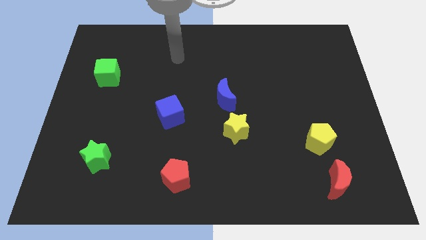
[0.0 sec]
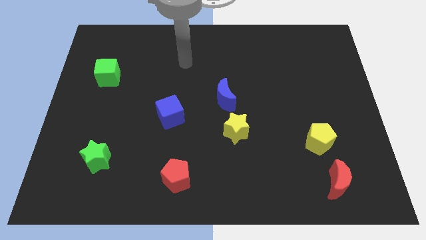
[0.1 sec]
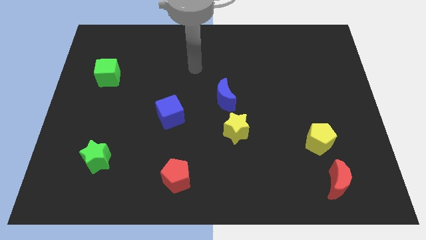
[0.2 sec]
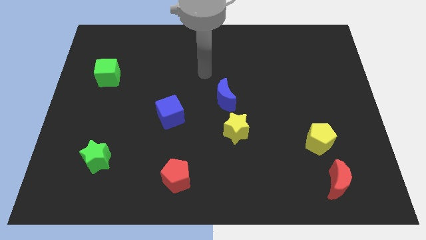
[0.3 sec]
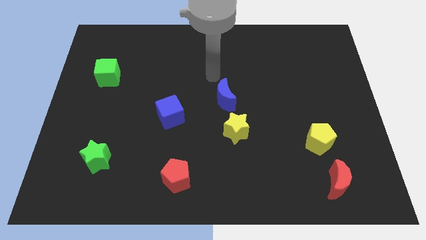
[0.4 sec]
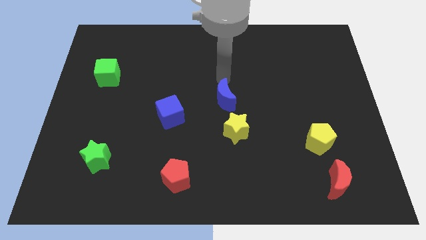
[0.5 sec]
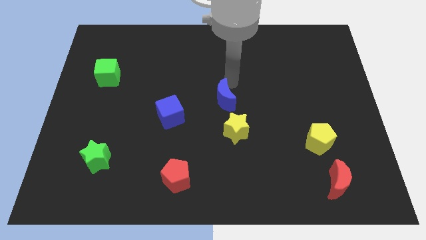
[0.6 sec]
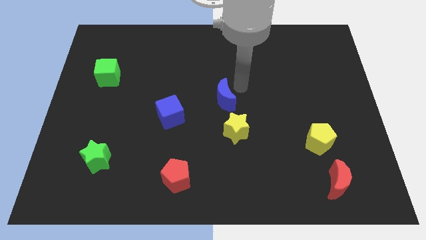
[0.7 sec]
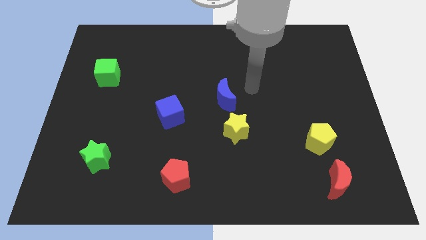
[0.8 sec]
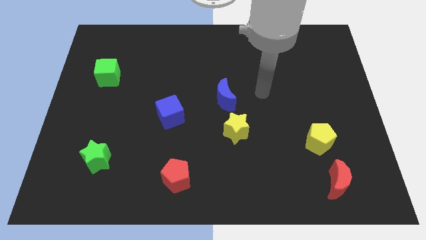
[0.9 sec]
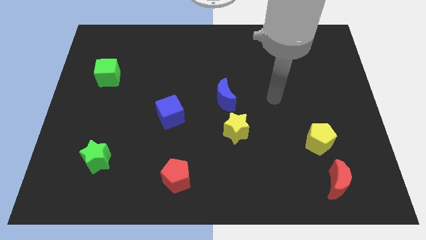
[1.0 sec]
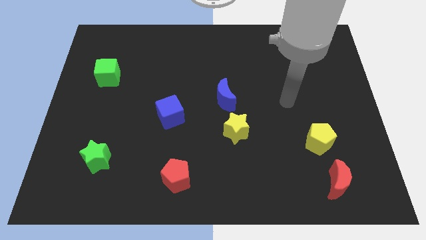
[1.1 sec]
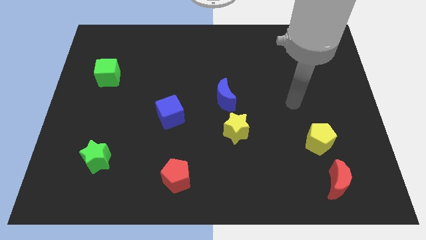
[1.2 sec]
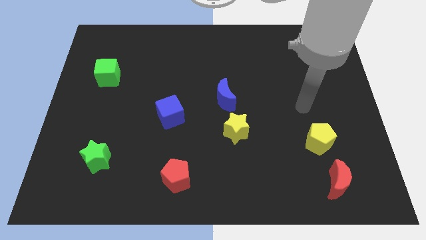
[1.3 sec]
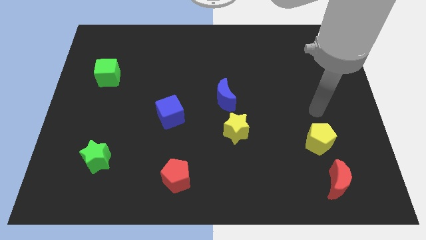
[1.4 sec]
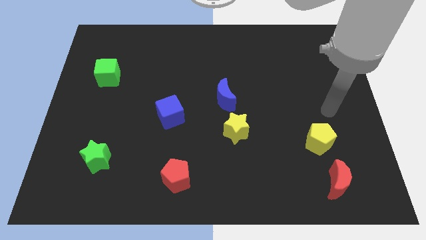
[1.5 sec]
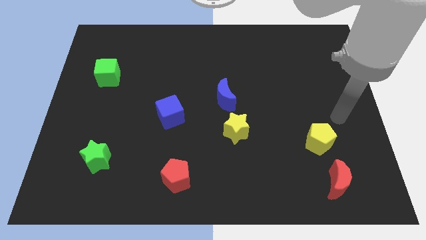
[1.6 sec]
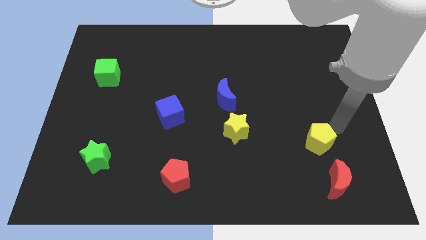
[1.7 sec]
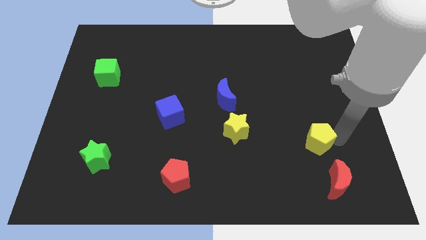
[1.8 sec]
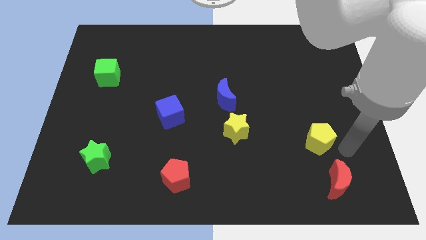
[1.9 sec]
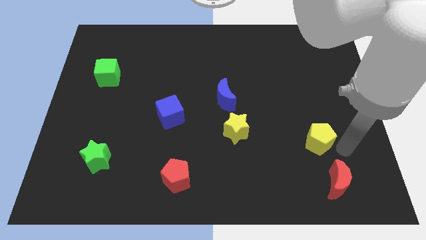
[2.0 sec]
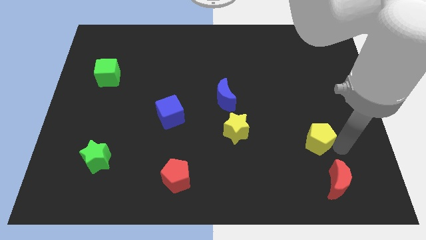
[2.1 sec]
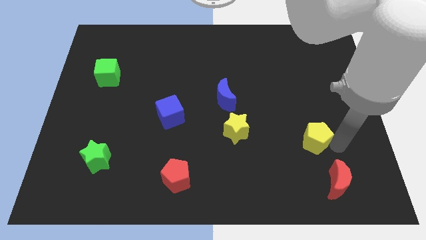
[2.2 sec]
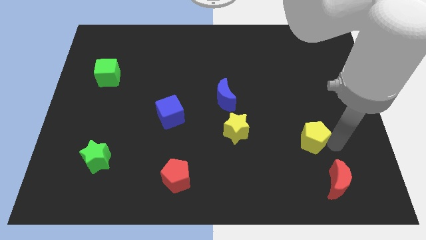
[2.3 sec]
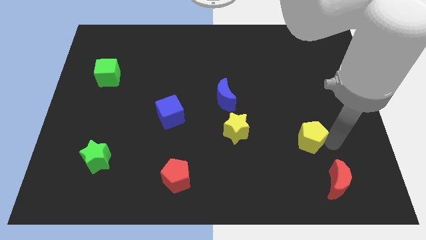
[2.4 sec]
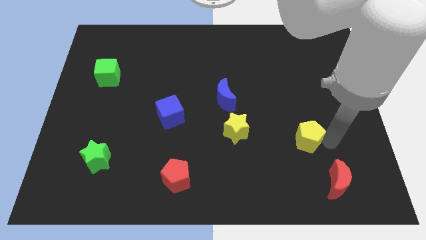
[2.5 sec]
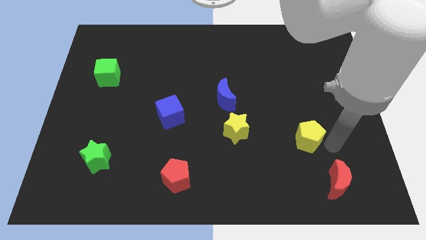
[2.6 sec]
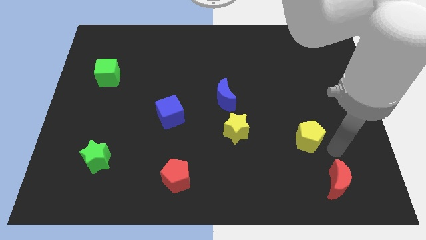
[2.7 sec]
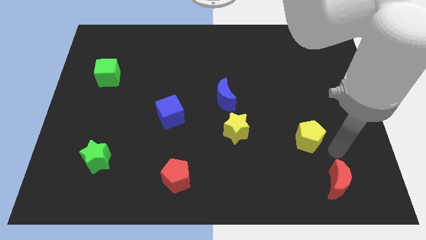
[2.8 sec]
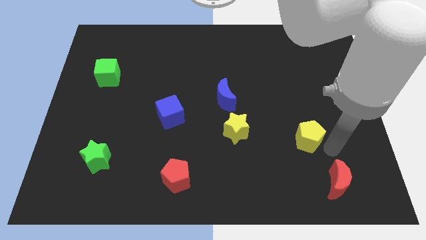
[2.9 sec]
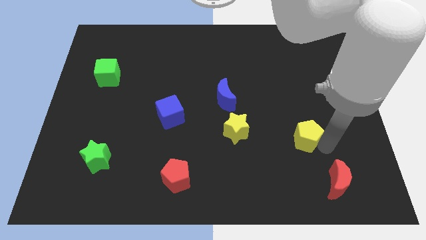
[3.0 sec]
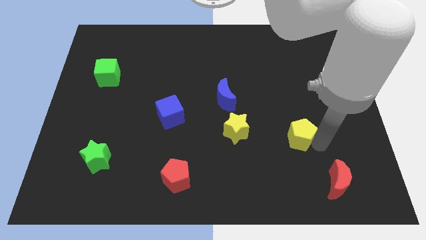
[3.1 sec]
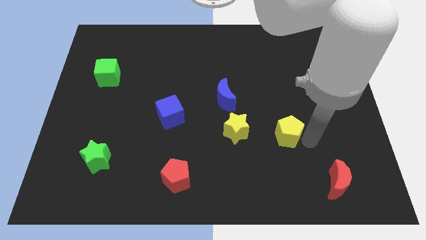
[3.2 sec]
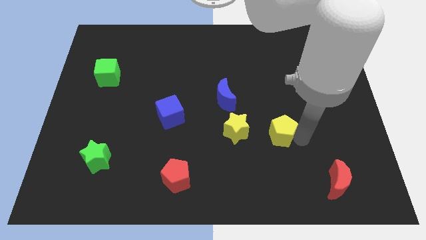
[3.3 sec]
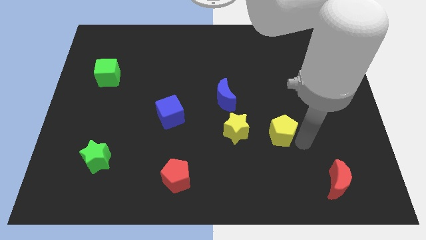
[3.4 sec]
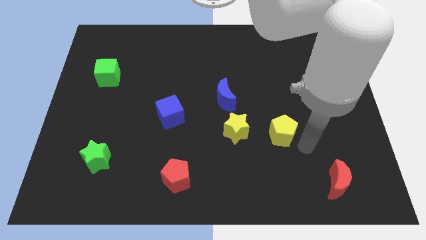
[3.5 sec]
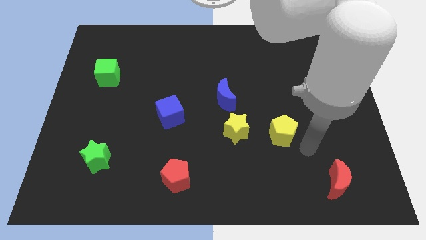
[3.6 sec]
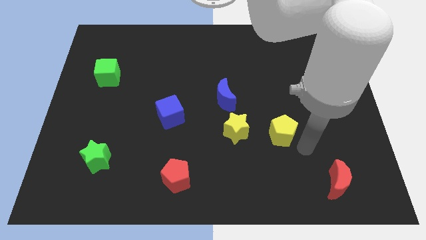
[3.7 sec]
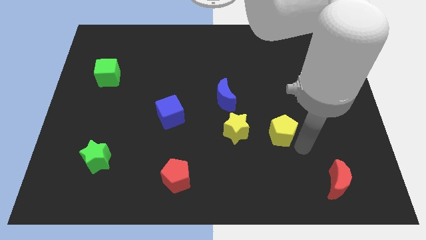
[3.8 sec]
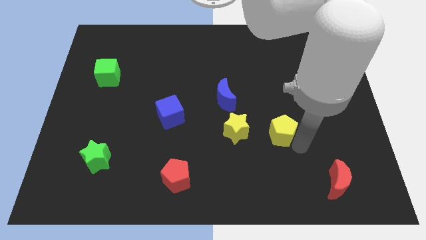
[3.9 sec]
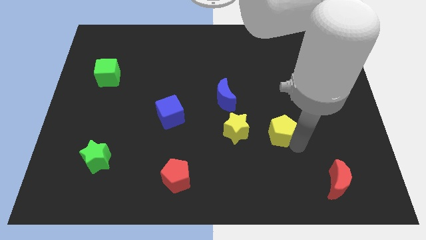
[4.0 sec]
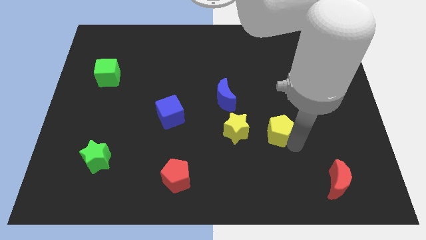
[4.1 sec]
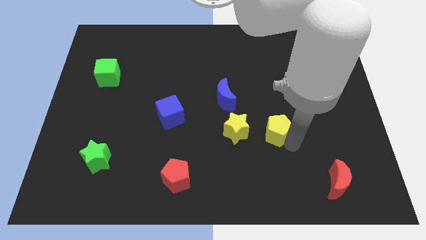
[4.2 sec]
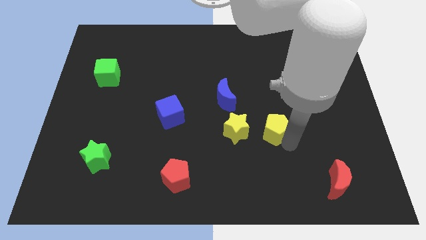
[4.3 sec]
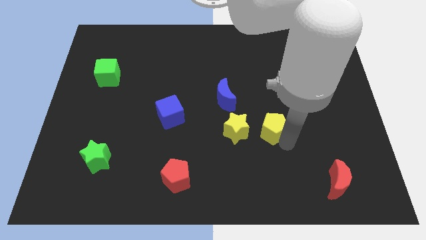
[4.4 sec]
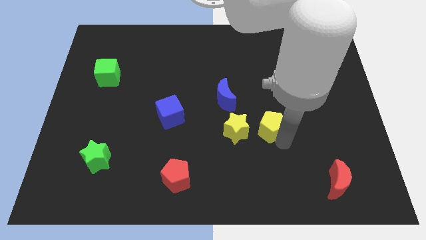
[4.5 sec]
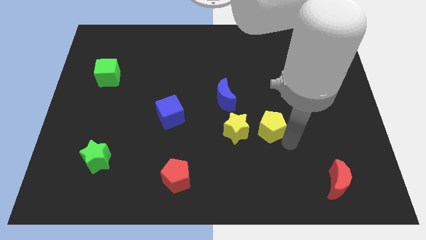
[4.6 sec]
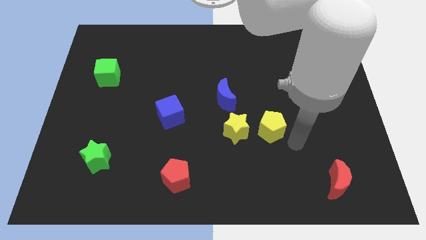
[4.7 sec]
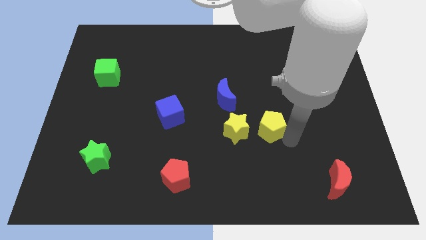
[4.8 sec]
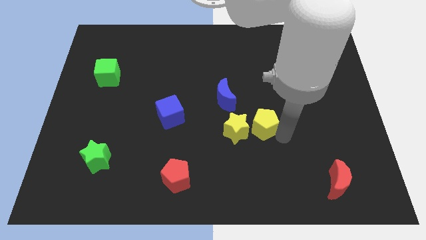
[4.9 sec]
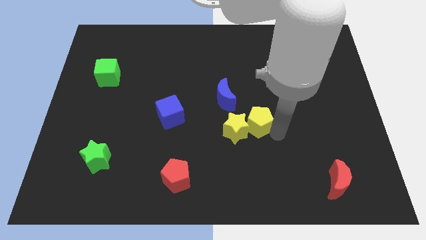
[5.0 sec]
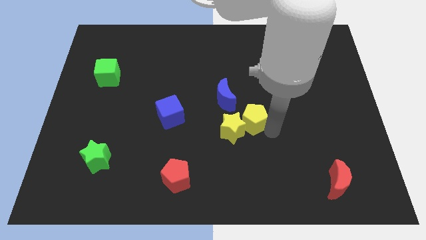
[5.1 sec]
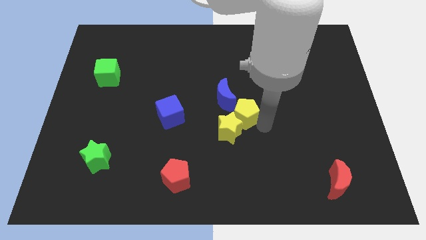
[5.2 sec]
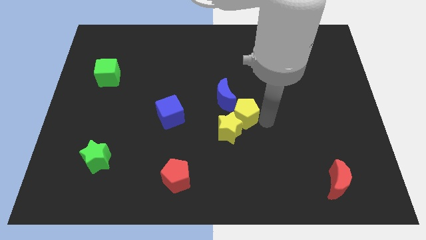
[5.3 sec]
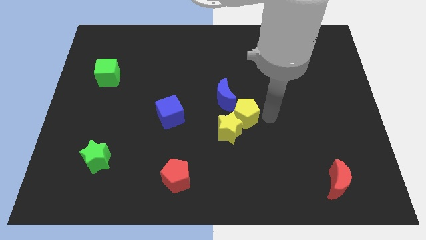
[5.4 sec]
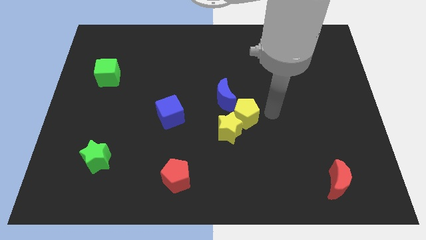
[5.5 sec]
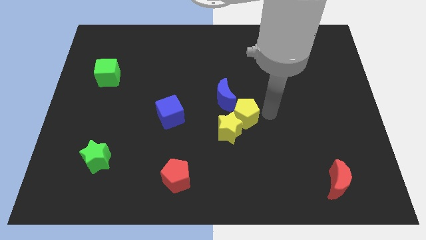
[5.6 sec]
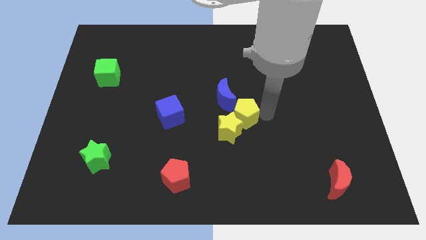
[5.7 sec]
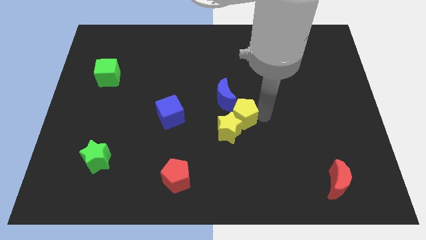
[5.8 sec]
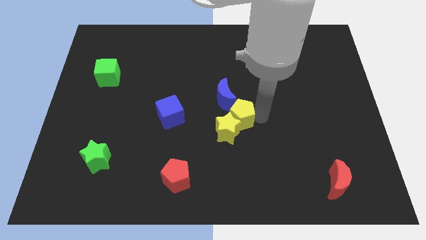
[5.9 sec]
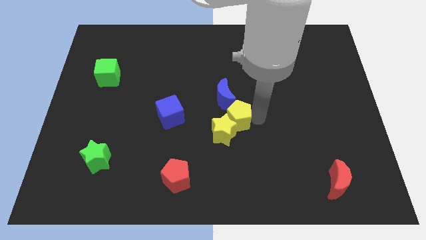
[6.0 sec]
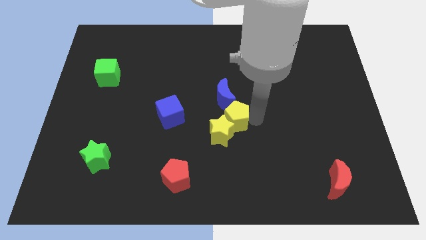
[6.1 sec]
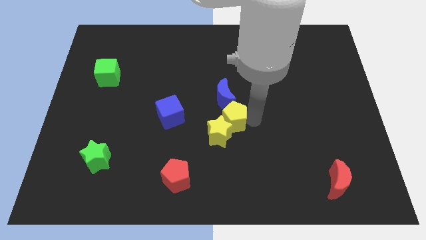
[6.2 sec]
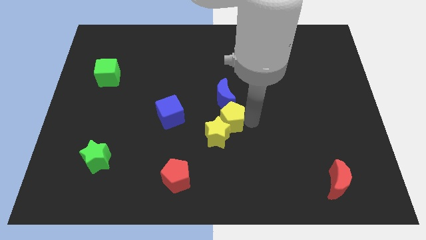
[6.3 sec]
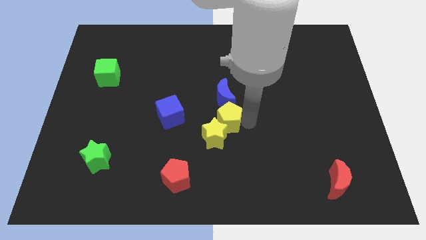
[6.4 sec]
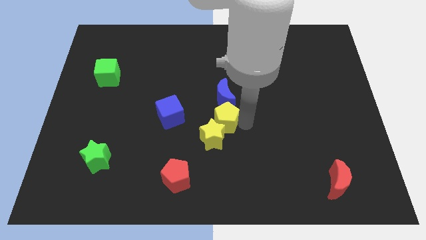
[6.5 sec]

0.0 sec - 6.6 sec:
put the yellow pentagon diagonally down and to the left of the blue moon
